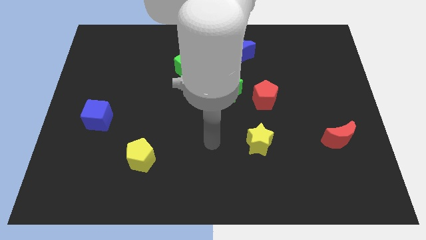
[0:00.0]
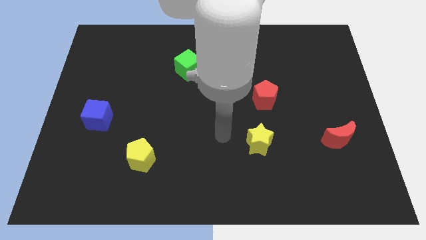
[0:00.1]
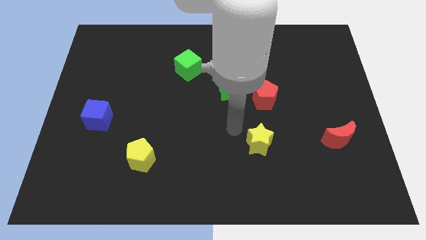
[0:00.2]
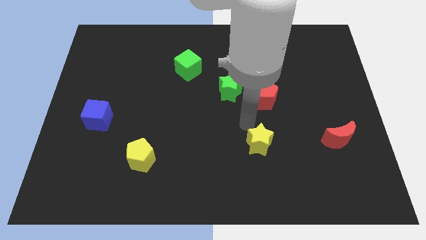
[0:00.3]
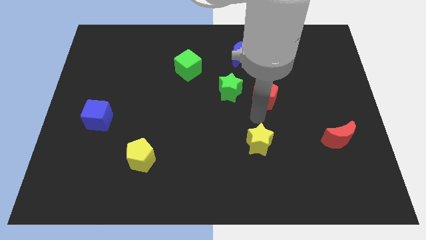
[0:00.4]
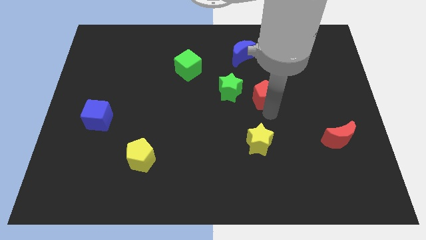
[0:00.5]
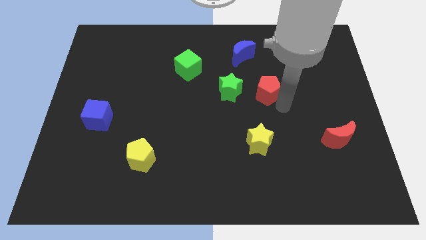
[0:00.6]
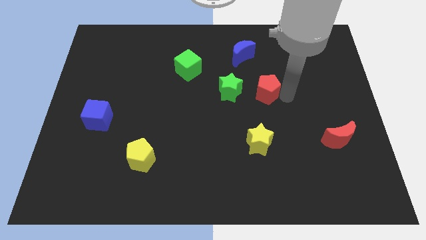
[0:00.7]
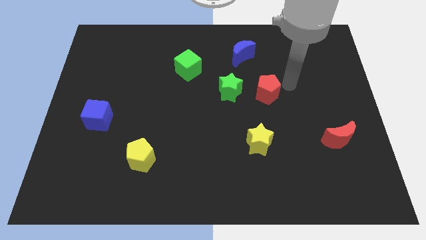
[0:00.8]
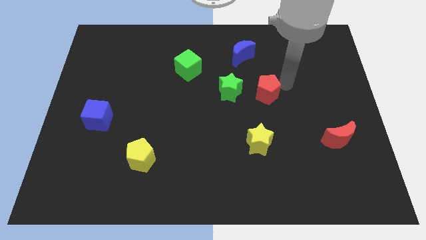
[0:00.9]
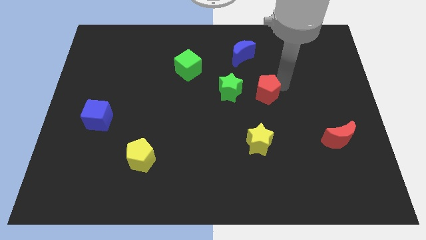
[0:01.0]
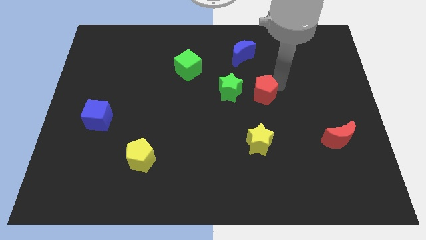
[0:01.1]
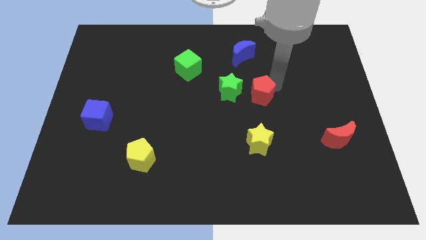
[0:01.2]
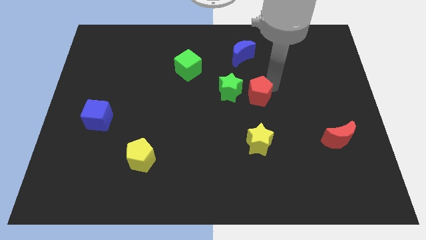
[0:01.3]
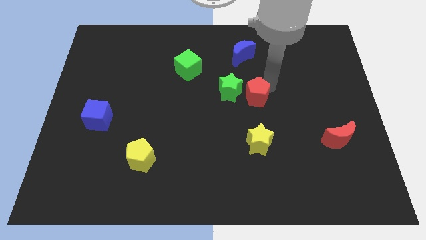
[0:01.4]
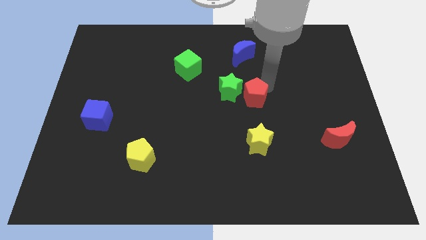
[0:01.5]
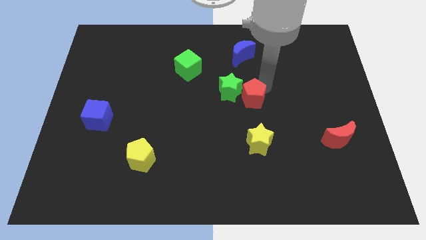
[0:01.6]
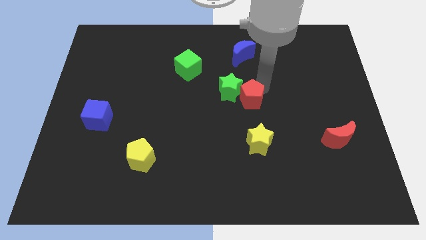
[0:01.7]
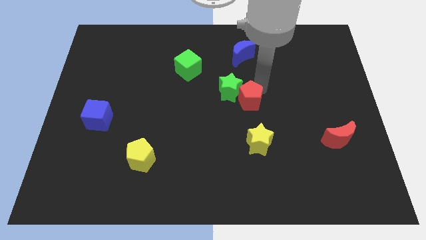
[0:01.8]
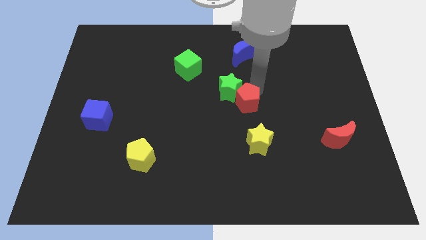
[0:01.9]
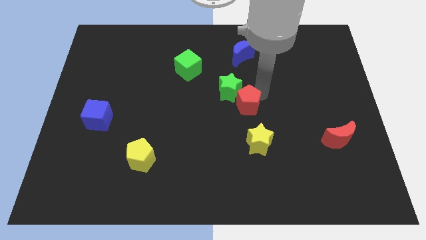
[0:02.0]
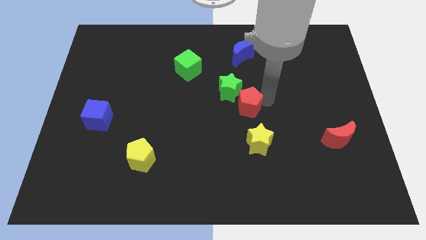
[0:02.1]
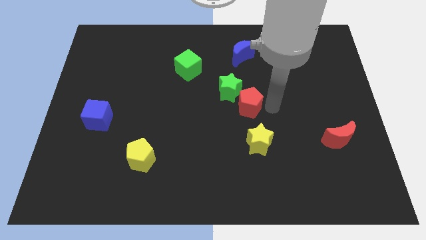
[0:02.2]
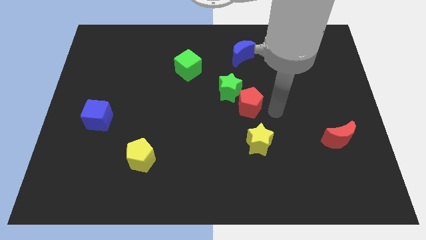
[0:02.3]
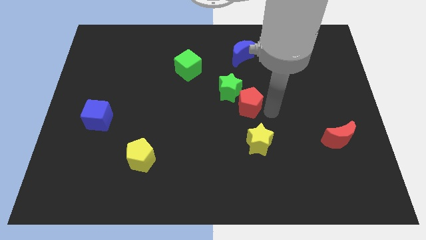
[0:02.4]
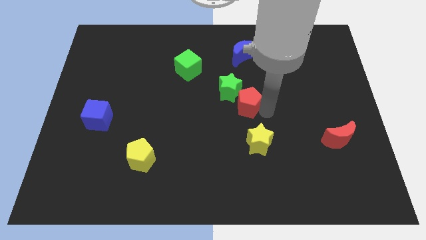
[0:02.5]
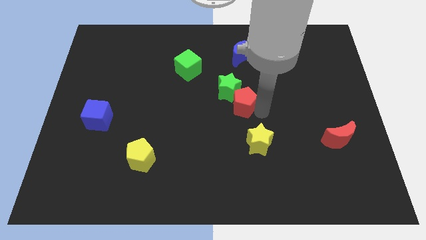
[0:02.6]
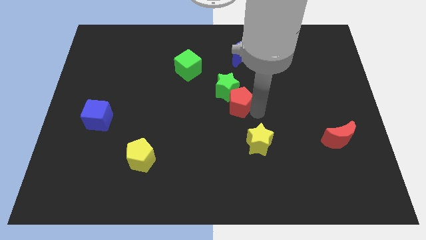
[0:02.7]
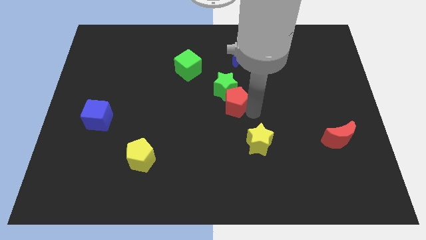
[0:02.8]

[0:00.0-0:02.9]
move the red pentagon left a bit

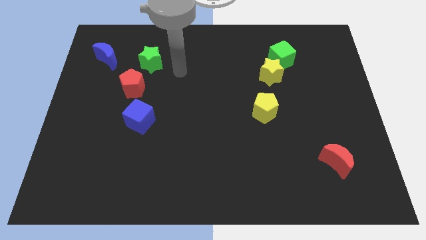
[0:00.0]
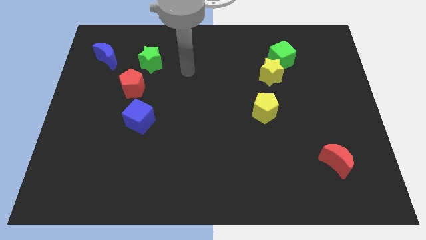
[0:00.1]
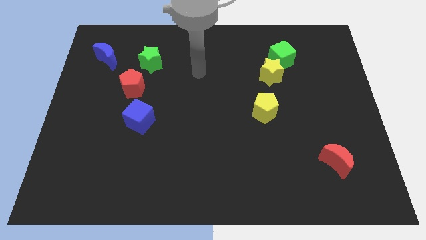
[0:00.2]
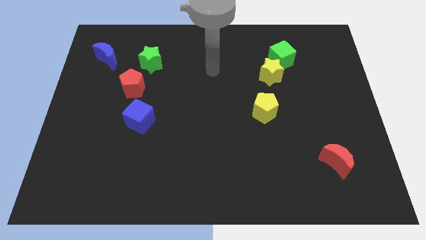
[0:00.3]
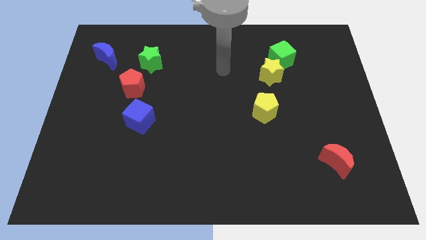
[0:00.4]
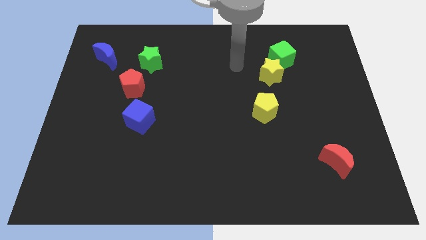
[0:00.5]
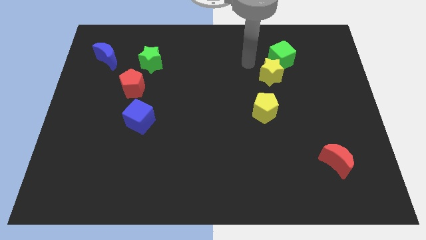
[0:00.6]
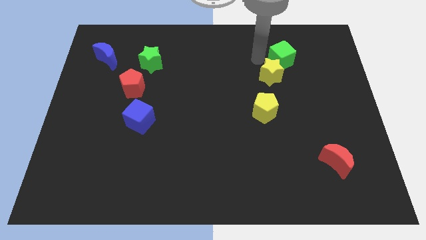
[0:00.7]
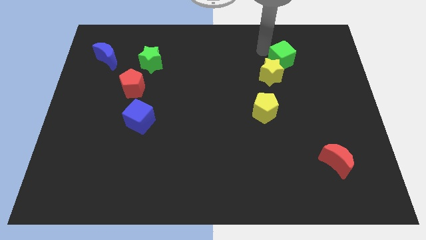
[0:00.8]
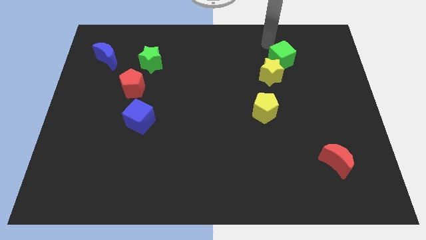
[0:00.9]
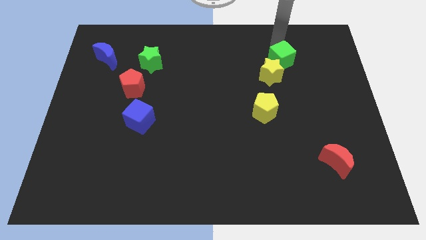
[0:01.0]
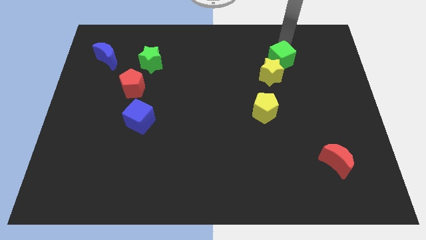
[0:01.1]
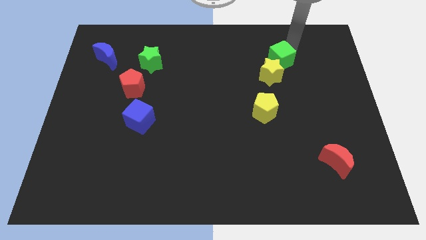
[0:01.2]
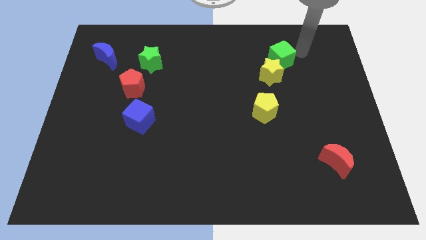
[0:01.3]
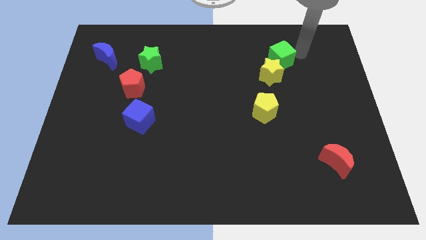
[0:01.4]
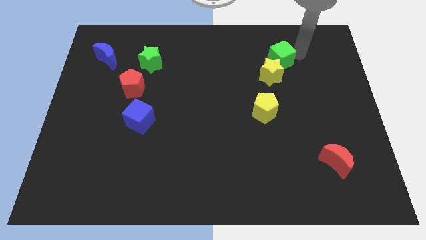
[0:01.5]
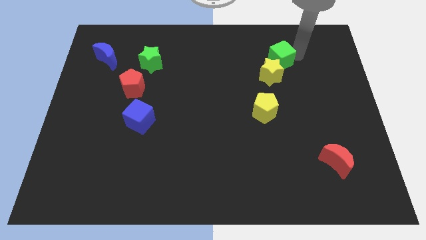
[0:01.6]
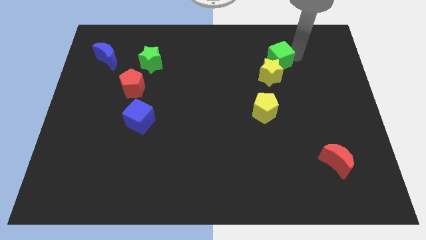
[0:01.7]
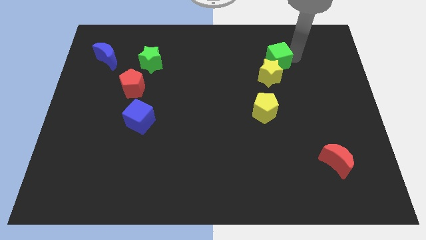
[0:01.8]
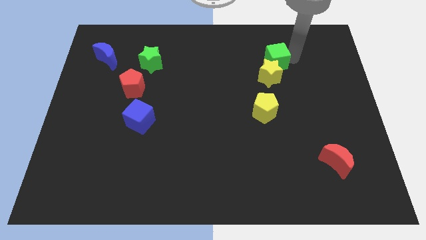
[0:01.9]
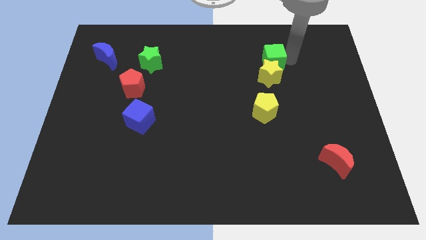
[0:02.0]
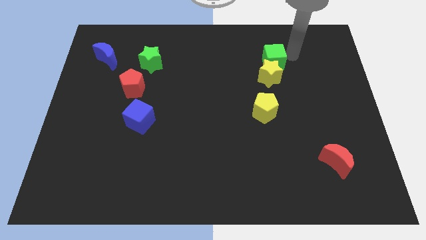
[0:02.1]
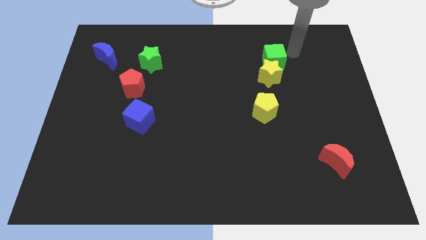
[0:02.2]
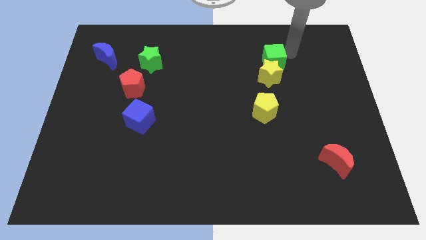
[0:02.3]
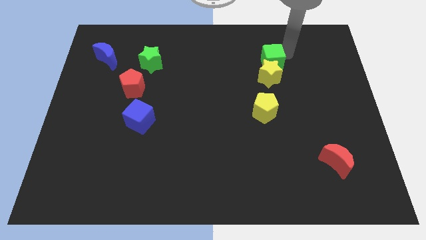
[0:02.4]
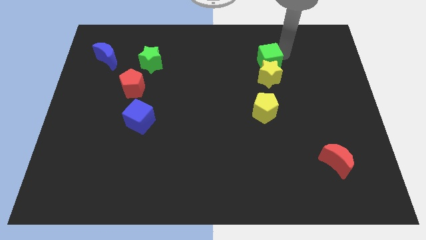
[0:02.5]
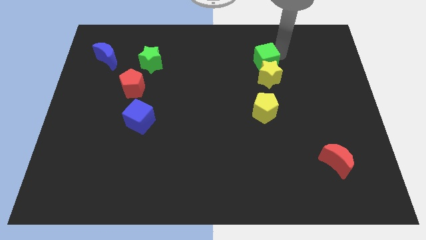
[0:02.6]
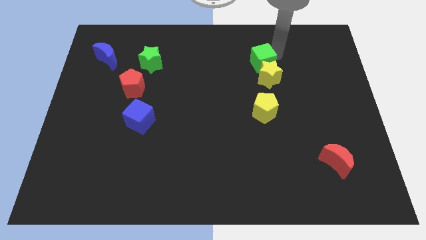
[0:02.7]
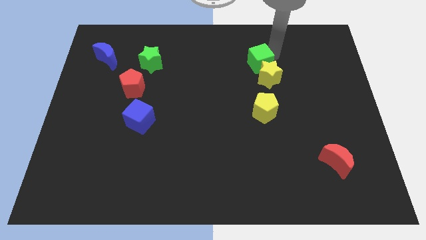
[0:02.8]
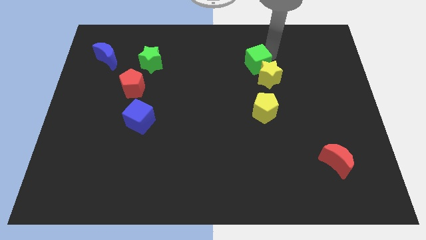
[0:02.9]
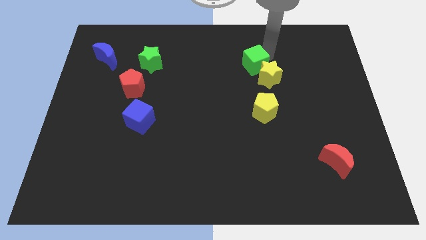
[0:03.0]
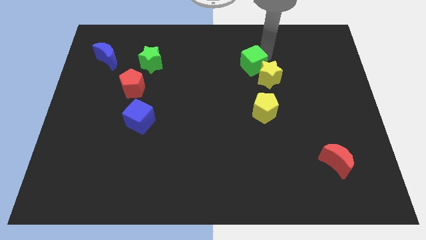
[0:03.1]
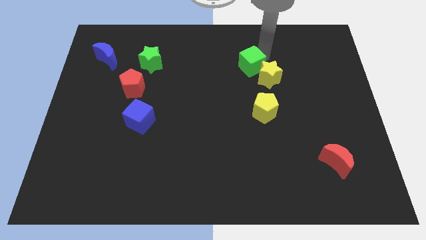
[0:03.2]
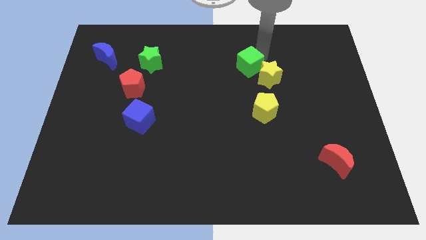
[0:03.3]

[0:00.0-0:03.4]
push the green cube slightly down and then to the left

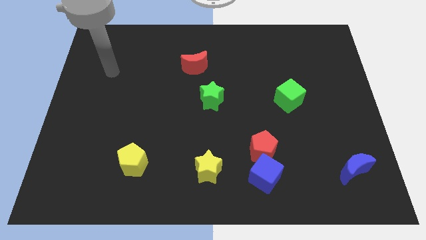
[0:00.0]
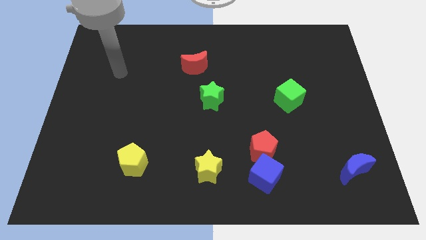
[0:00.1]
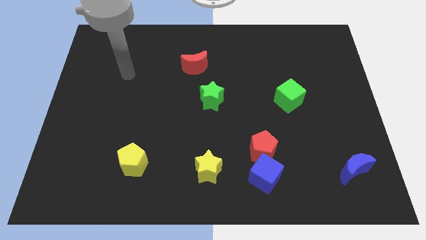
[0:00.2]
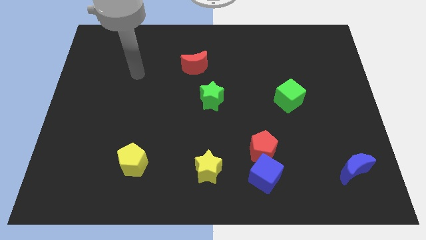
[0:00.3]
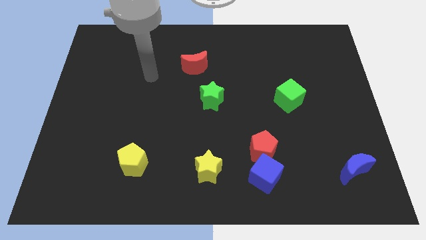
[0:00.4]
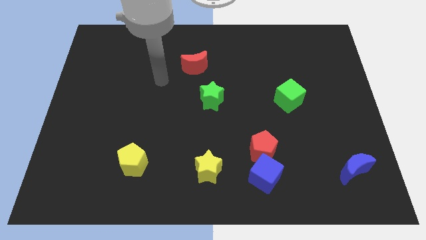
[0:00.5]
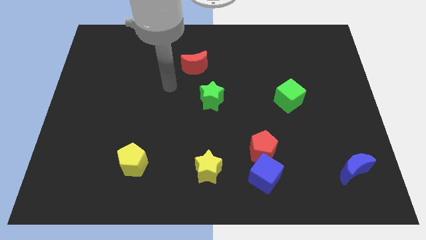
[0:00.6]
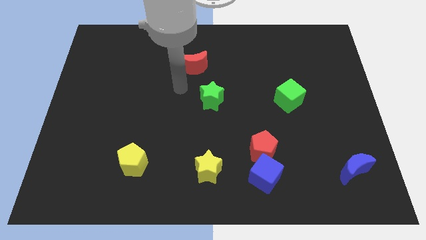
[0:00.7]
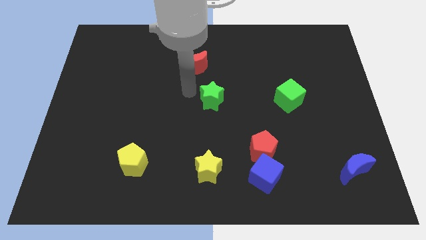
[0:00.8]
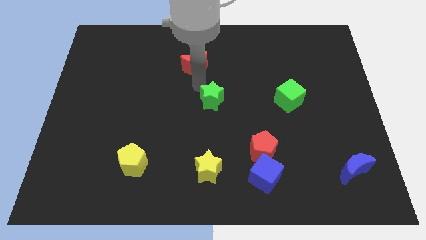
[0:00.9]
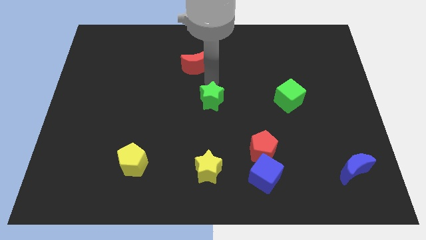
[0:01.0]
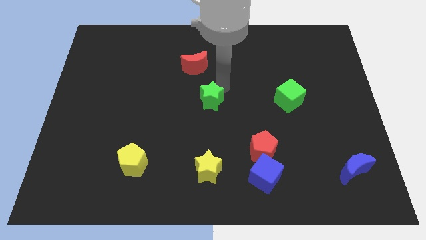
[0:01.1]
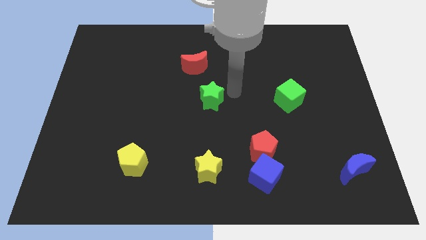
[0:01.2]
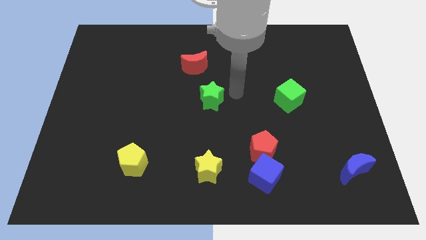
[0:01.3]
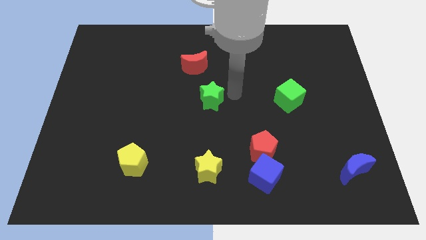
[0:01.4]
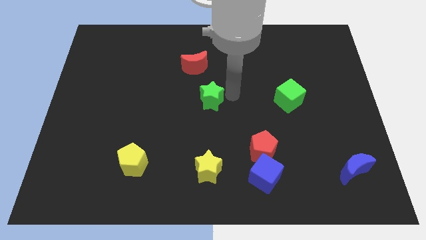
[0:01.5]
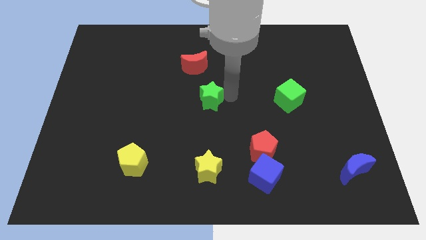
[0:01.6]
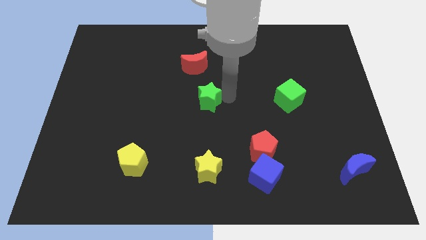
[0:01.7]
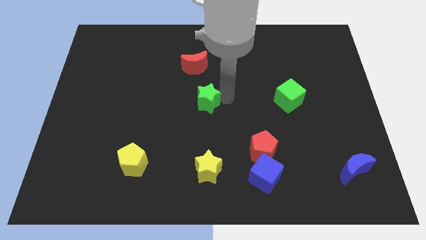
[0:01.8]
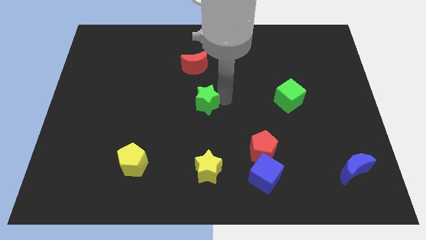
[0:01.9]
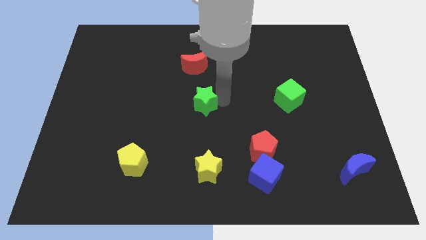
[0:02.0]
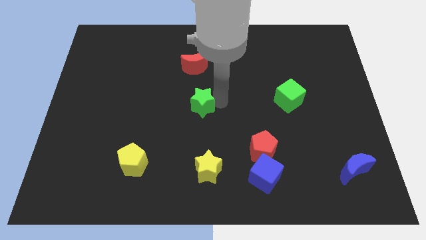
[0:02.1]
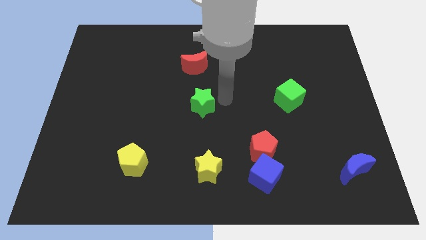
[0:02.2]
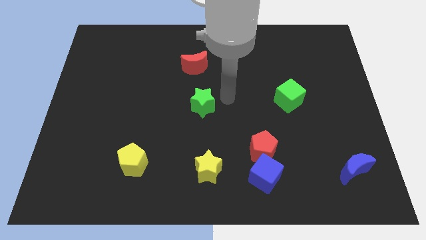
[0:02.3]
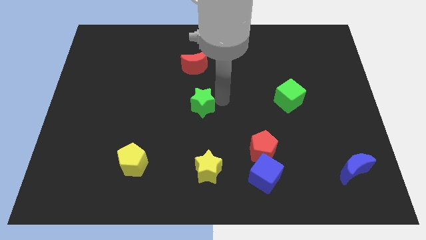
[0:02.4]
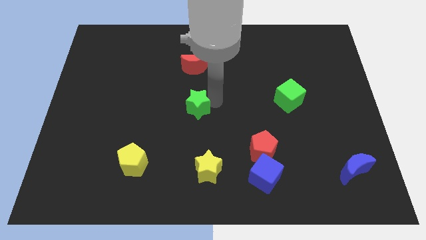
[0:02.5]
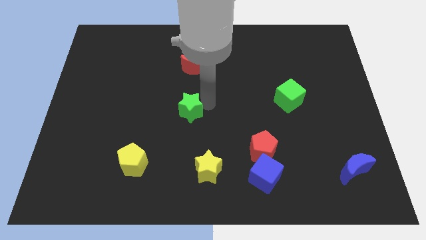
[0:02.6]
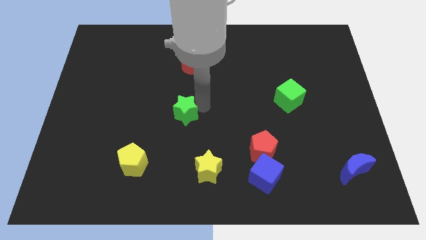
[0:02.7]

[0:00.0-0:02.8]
slide the green star downwards and to the left diagonally slightly
